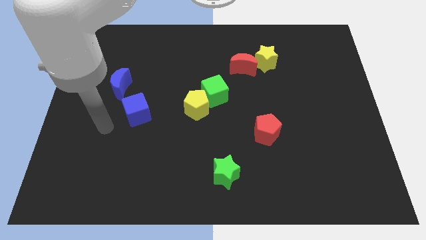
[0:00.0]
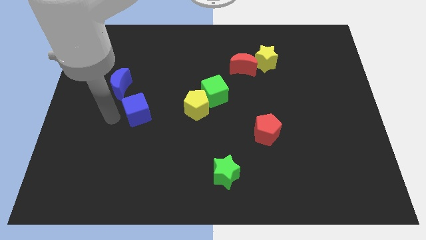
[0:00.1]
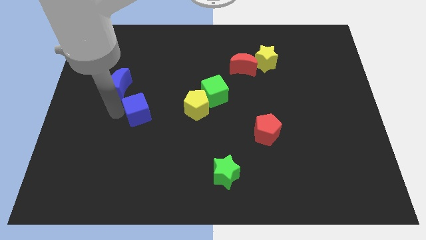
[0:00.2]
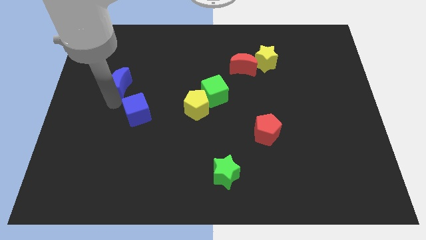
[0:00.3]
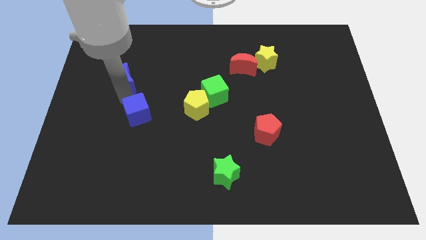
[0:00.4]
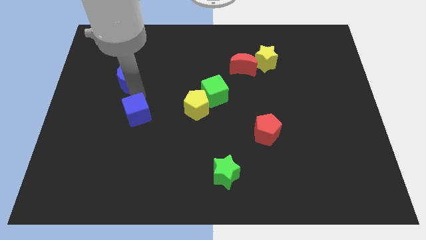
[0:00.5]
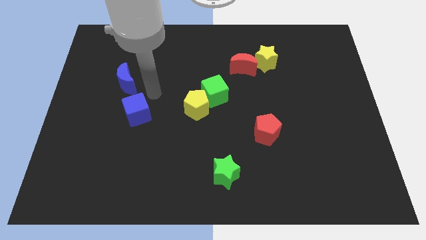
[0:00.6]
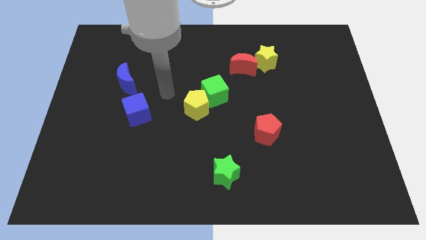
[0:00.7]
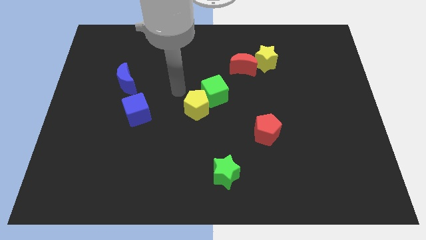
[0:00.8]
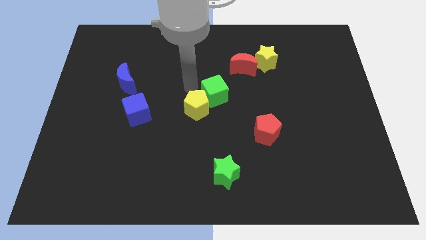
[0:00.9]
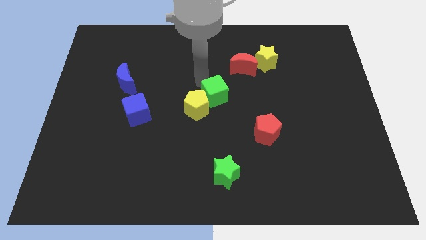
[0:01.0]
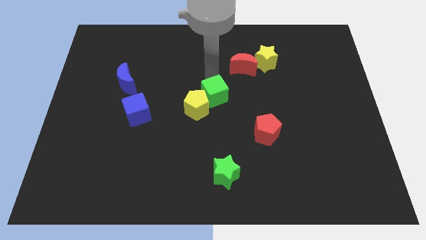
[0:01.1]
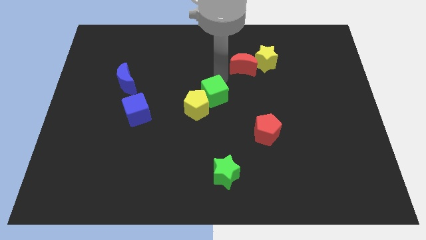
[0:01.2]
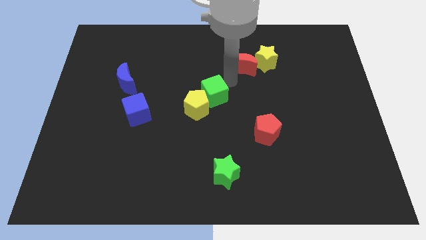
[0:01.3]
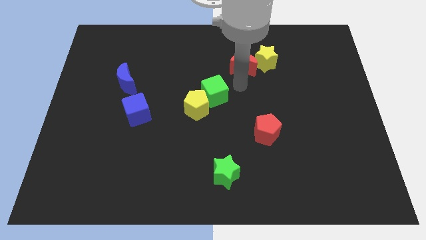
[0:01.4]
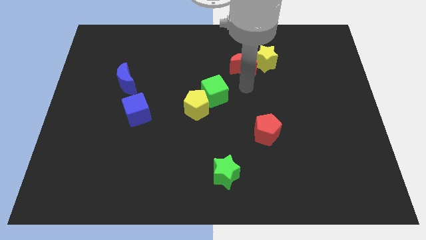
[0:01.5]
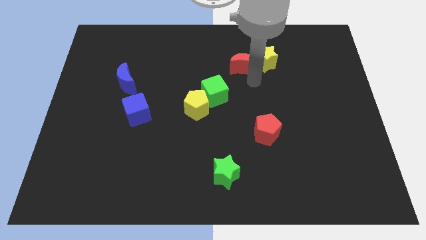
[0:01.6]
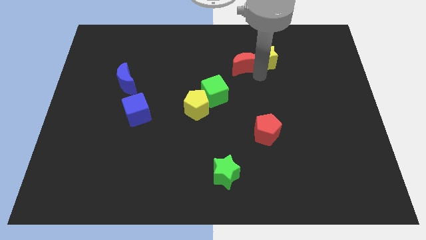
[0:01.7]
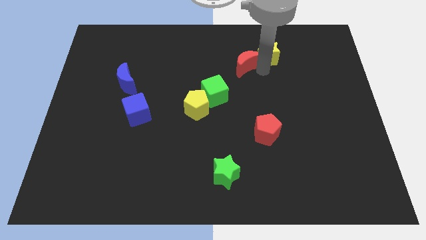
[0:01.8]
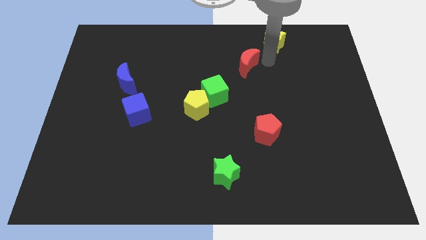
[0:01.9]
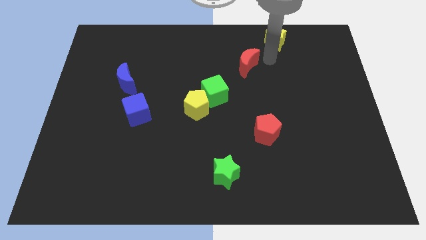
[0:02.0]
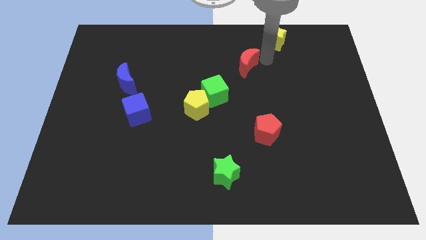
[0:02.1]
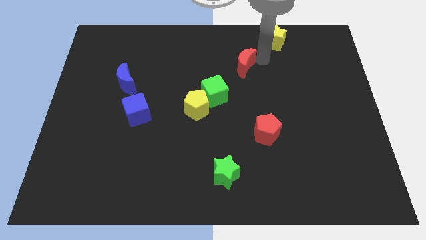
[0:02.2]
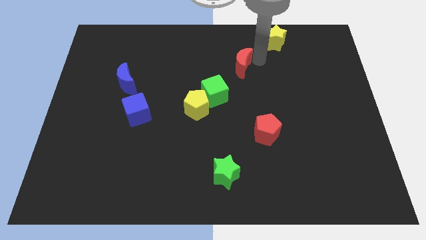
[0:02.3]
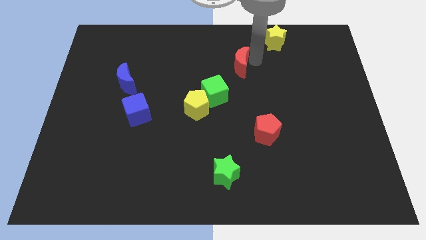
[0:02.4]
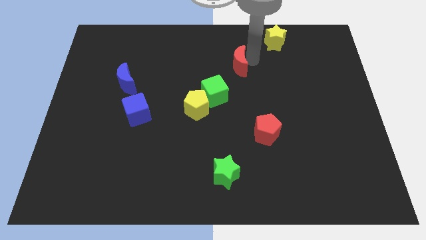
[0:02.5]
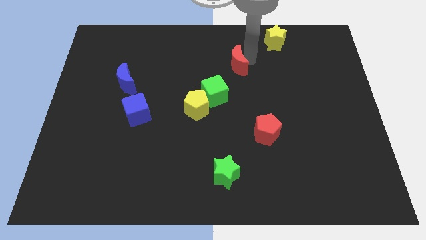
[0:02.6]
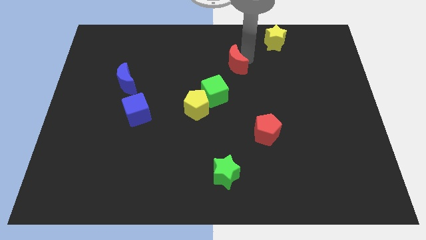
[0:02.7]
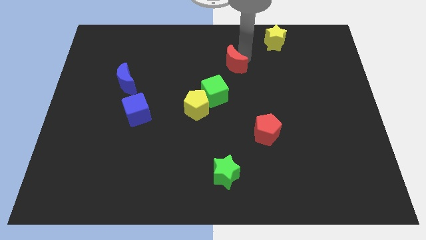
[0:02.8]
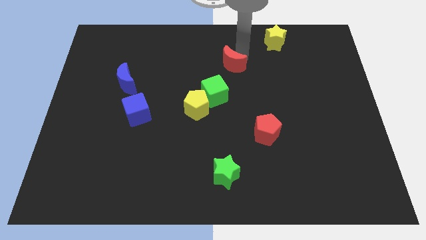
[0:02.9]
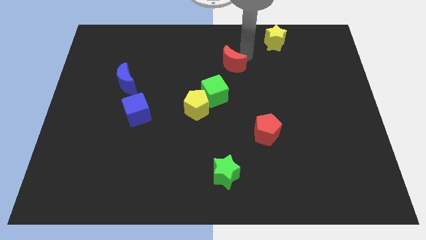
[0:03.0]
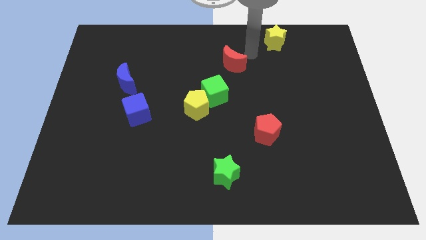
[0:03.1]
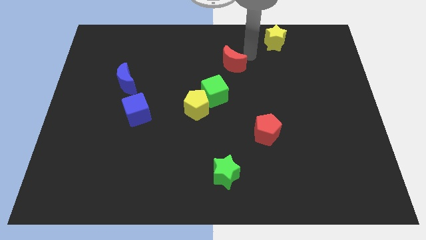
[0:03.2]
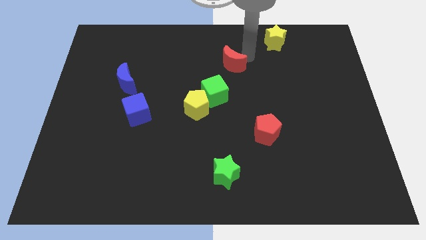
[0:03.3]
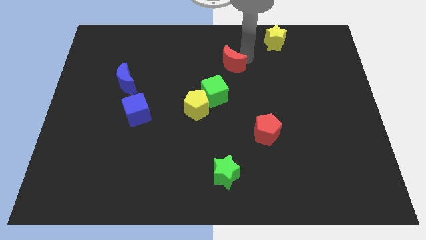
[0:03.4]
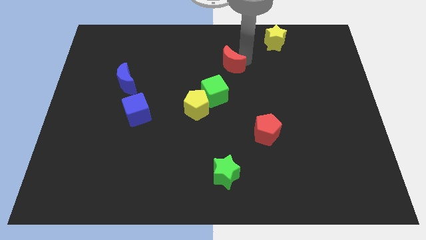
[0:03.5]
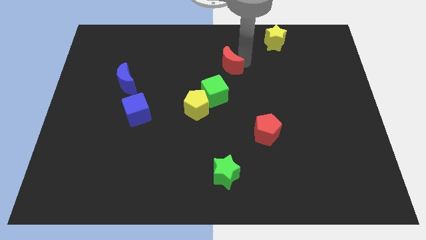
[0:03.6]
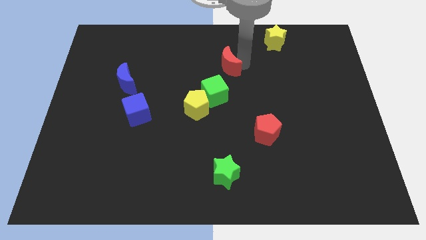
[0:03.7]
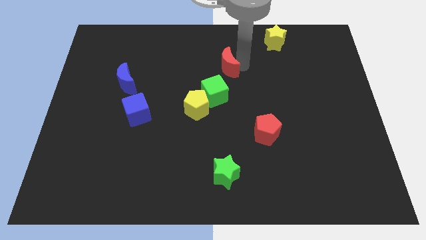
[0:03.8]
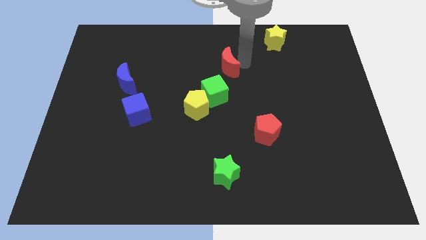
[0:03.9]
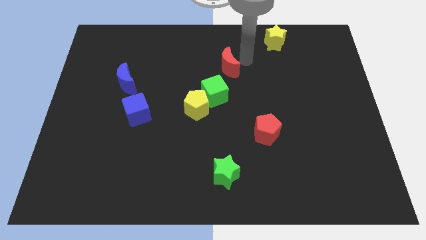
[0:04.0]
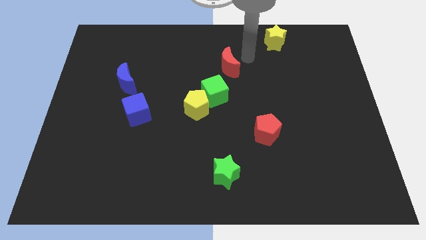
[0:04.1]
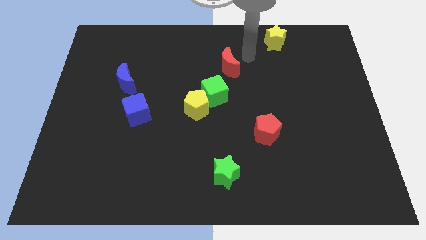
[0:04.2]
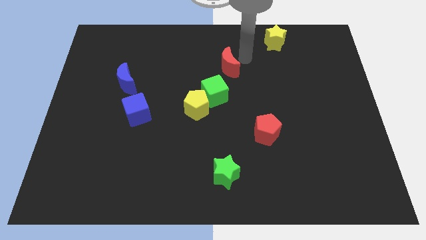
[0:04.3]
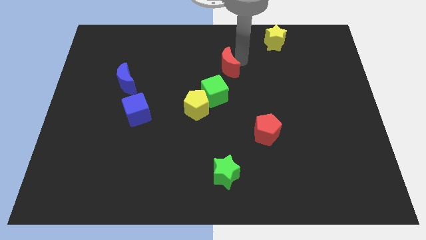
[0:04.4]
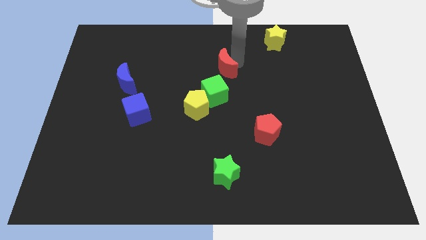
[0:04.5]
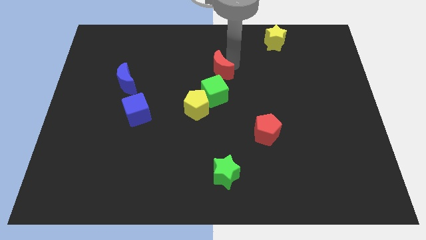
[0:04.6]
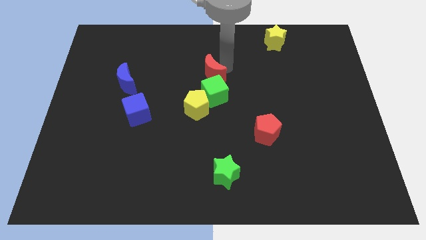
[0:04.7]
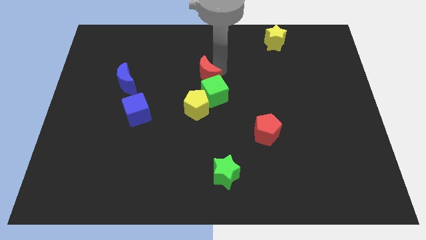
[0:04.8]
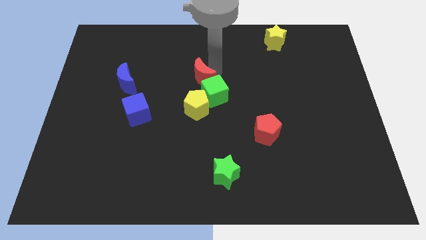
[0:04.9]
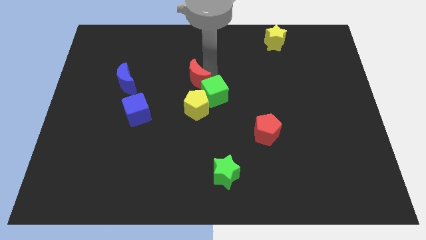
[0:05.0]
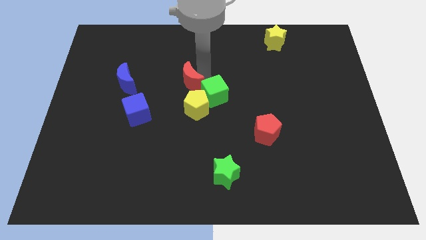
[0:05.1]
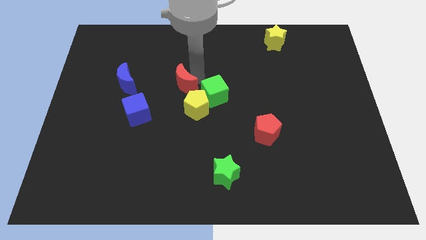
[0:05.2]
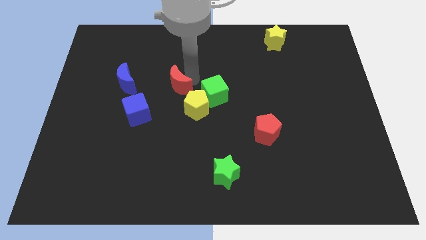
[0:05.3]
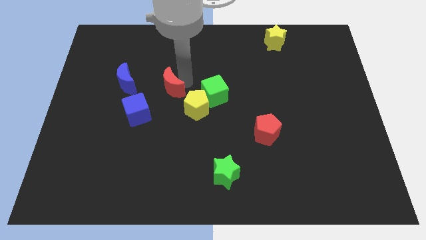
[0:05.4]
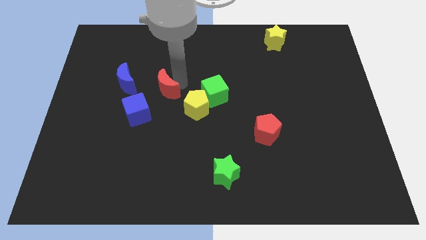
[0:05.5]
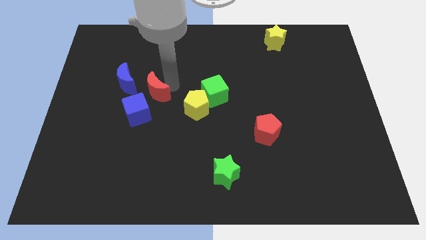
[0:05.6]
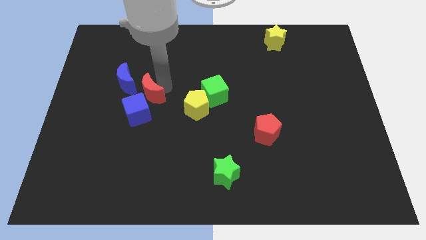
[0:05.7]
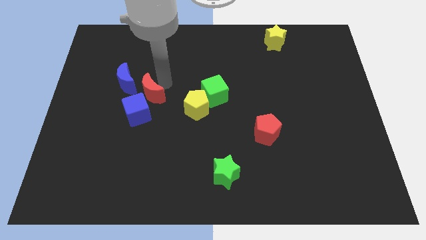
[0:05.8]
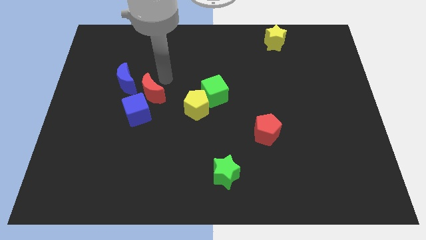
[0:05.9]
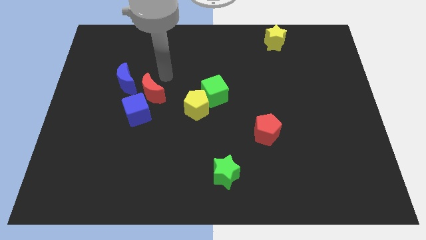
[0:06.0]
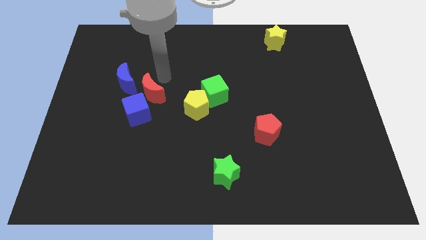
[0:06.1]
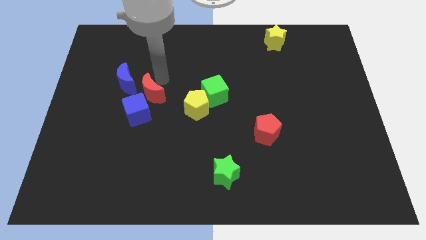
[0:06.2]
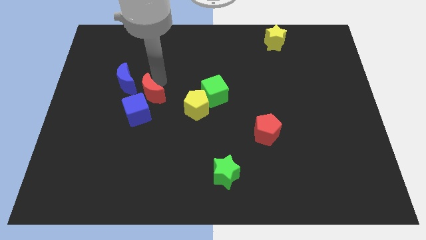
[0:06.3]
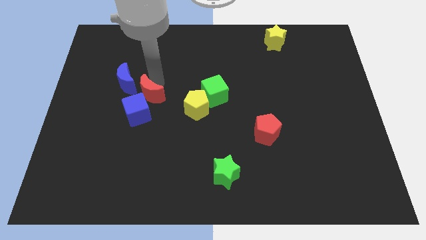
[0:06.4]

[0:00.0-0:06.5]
put the red moon to the blue cube
